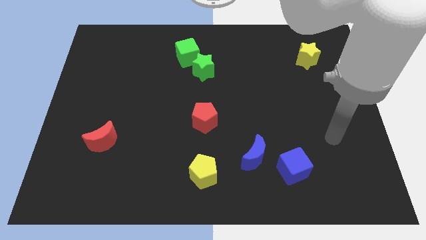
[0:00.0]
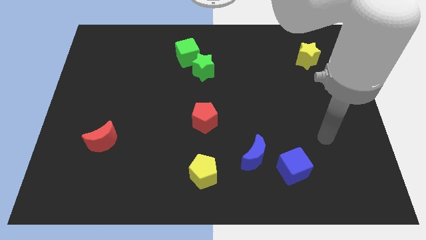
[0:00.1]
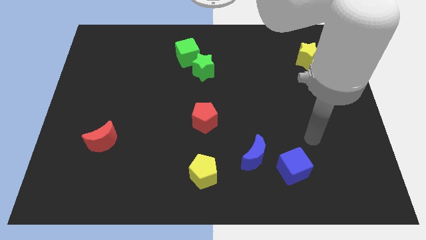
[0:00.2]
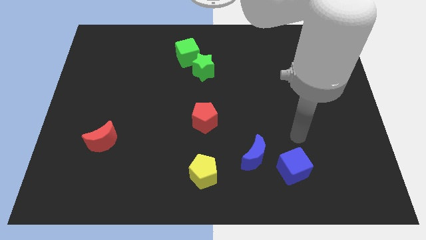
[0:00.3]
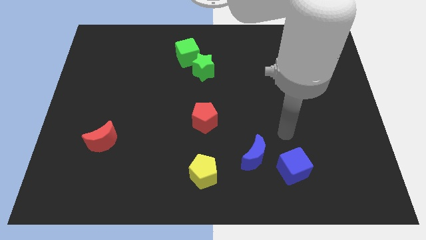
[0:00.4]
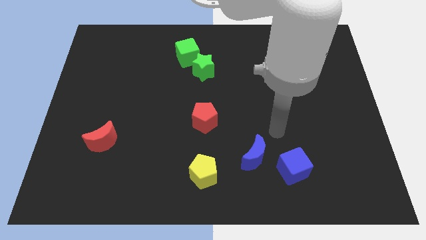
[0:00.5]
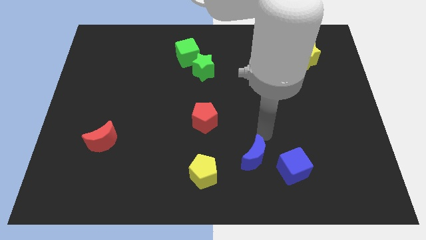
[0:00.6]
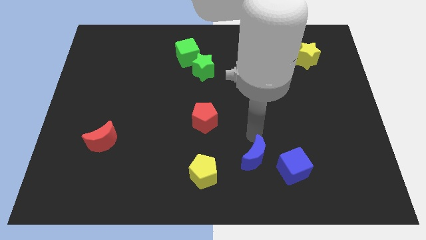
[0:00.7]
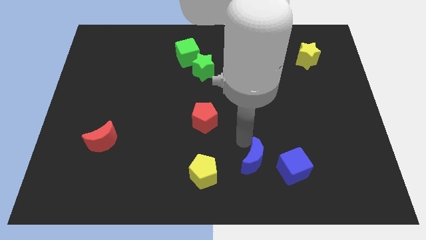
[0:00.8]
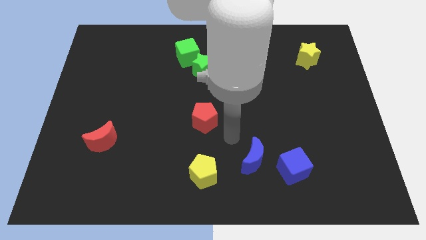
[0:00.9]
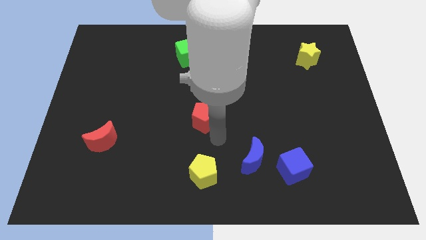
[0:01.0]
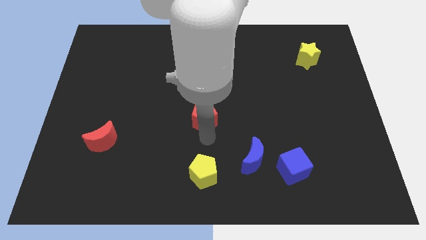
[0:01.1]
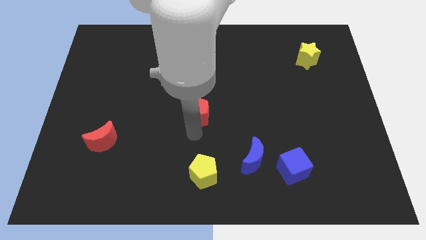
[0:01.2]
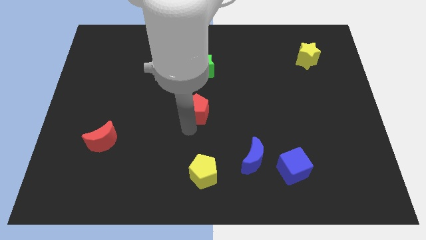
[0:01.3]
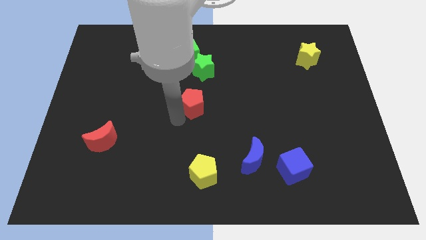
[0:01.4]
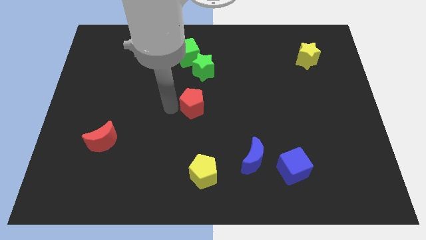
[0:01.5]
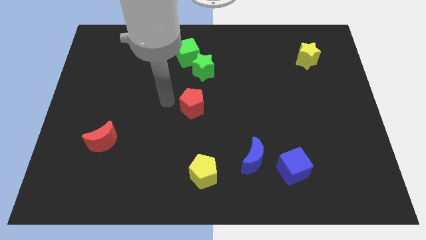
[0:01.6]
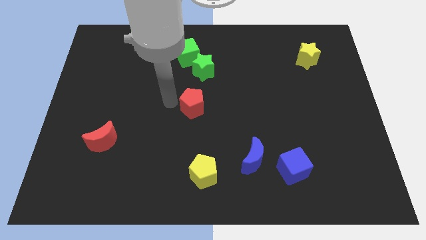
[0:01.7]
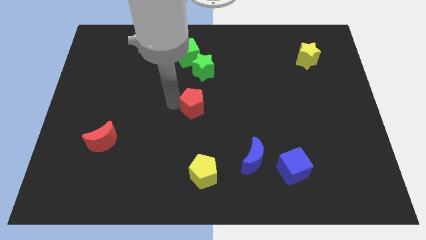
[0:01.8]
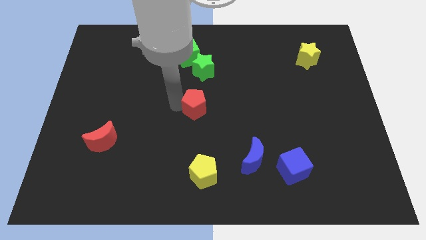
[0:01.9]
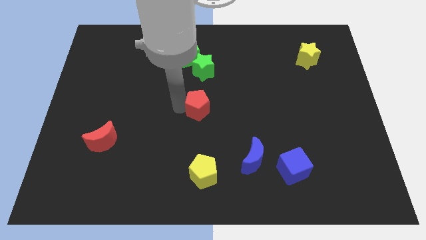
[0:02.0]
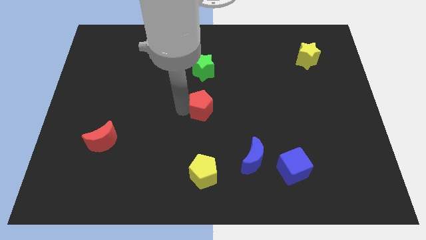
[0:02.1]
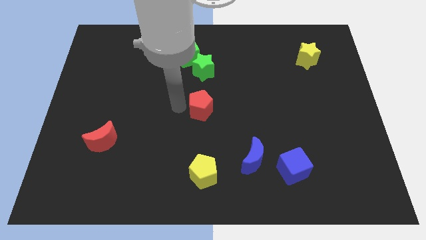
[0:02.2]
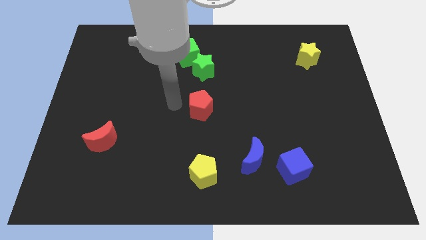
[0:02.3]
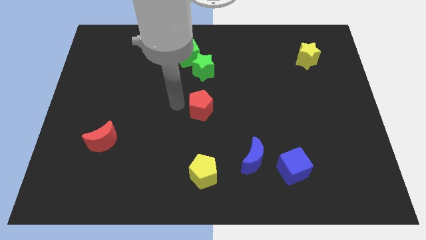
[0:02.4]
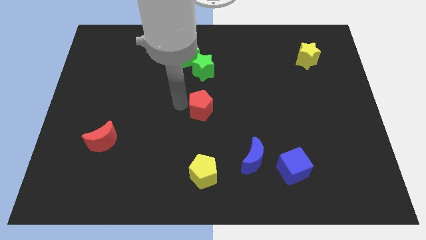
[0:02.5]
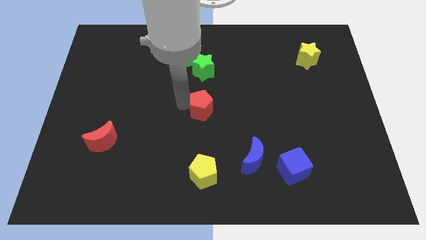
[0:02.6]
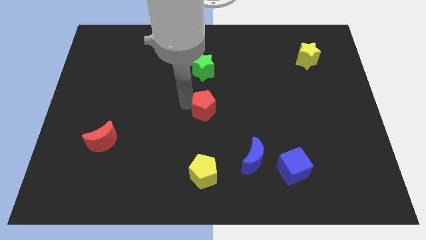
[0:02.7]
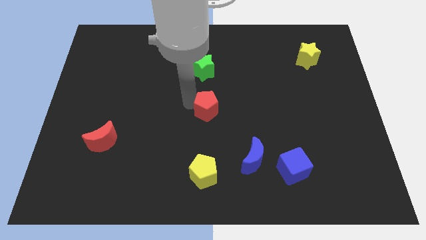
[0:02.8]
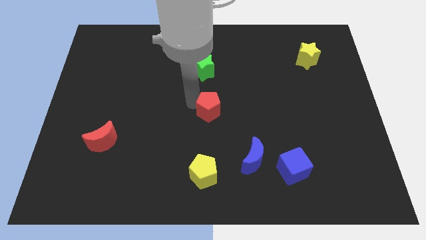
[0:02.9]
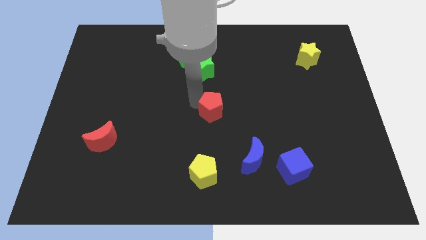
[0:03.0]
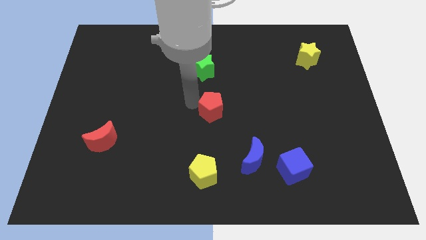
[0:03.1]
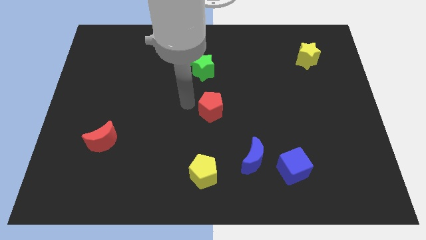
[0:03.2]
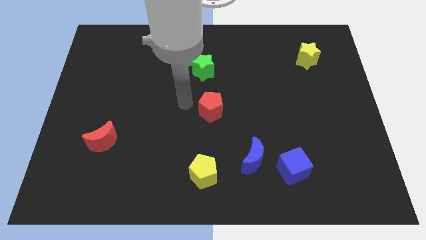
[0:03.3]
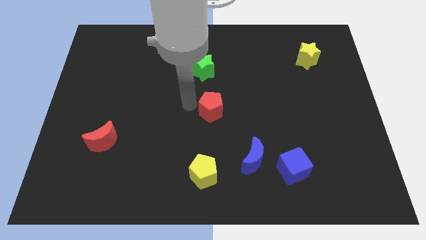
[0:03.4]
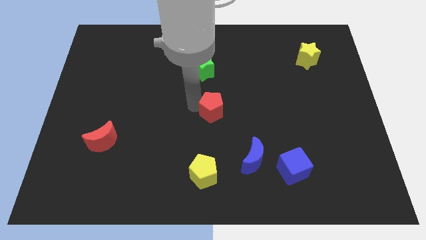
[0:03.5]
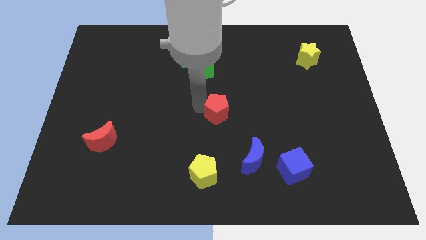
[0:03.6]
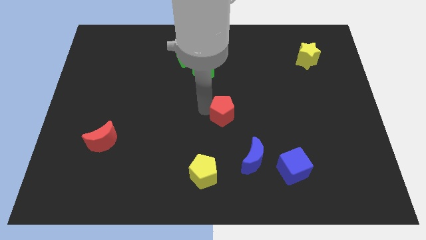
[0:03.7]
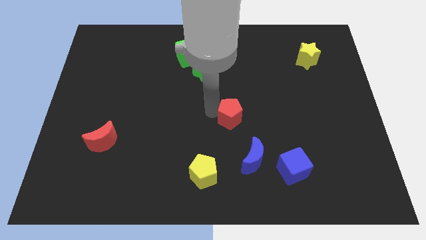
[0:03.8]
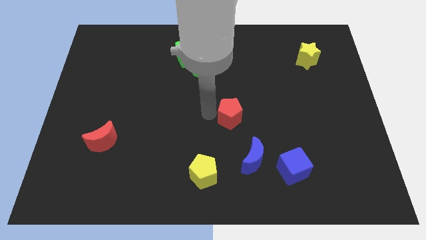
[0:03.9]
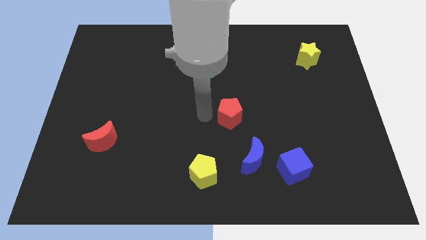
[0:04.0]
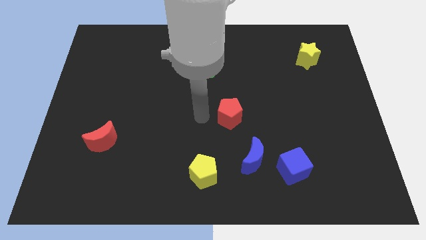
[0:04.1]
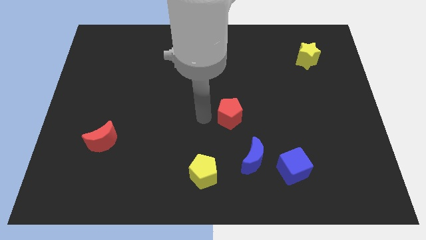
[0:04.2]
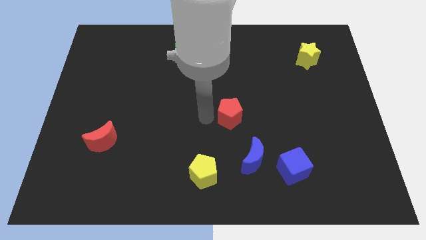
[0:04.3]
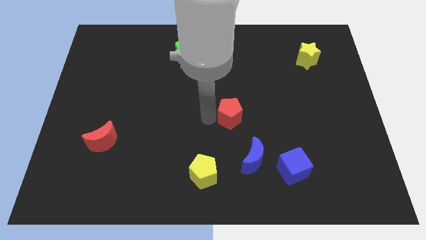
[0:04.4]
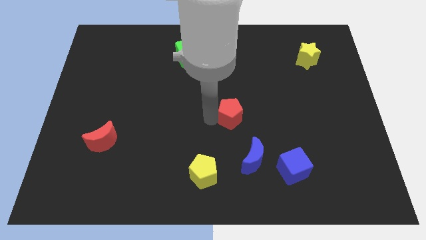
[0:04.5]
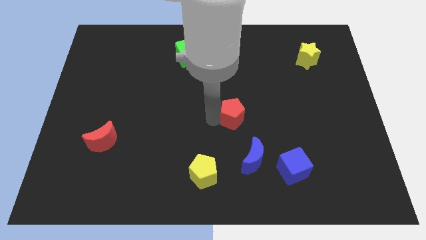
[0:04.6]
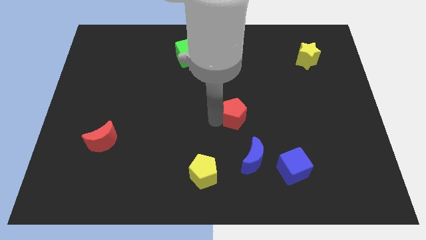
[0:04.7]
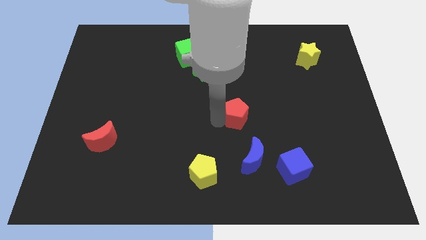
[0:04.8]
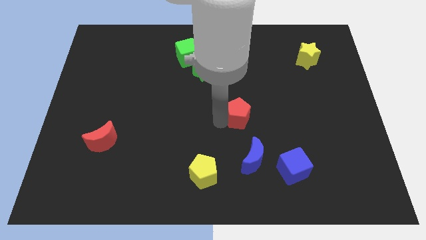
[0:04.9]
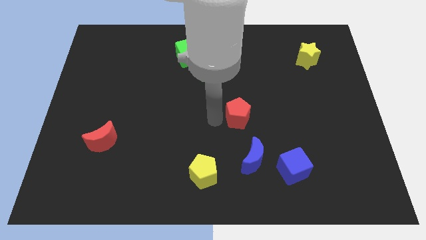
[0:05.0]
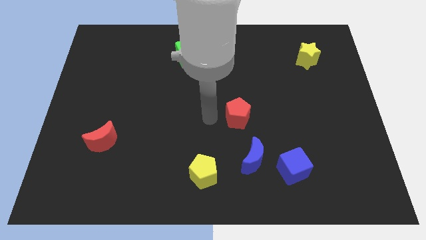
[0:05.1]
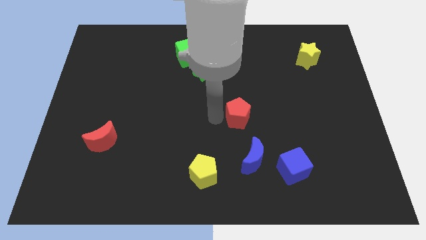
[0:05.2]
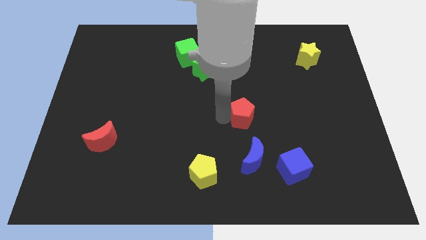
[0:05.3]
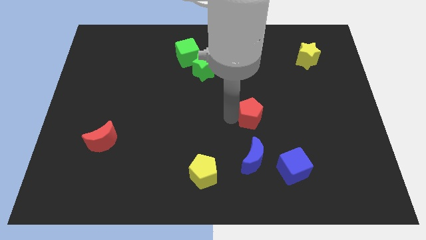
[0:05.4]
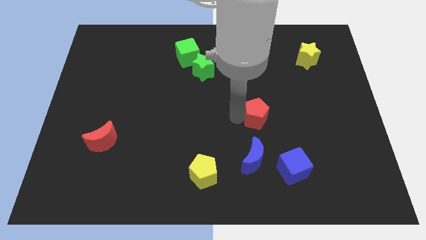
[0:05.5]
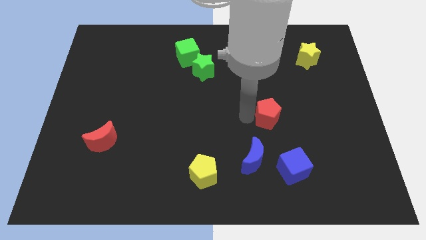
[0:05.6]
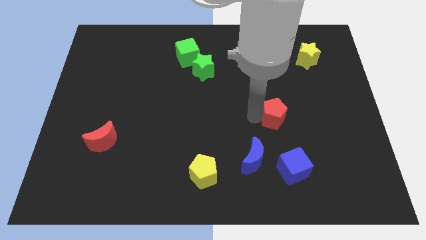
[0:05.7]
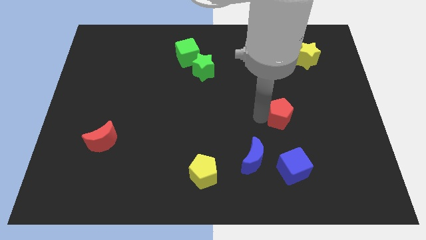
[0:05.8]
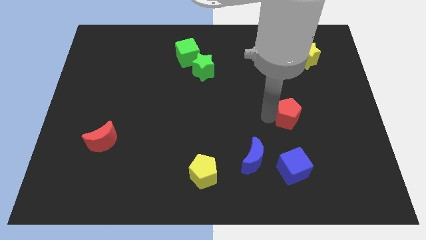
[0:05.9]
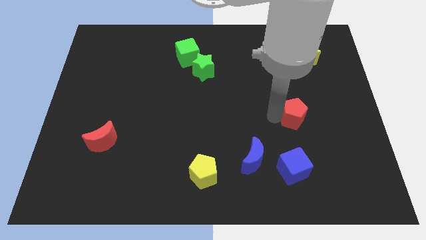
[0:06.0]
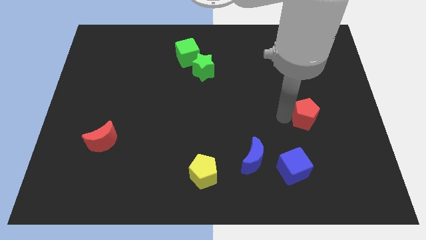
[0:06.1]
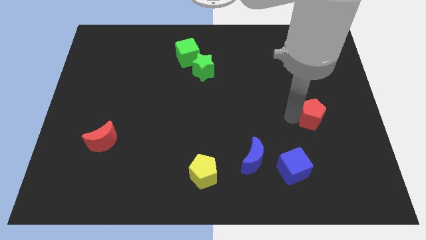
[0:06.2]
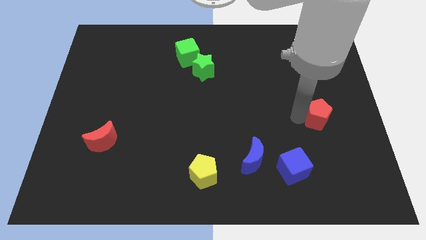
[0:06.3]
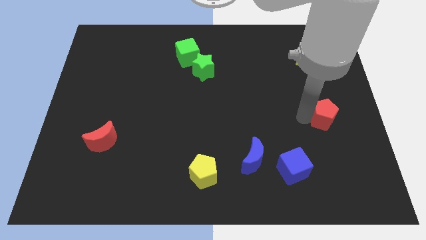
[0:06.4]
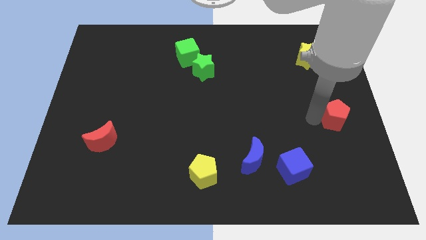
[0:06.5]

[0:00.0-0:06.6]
move the red pentagon to the center right
